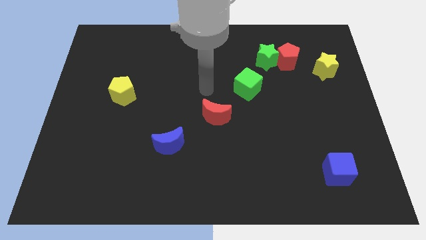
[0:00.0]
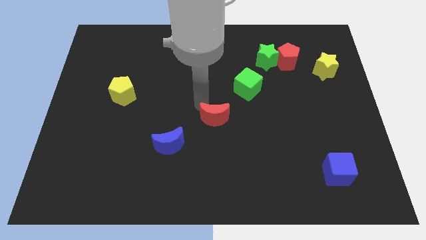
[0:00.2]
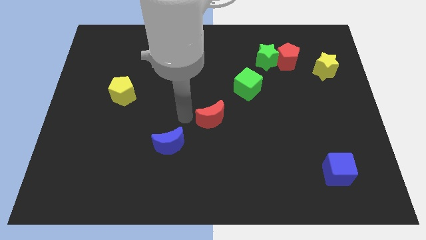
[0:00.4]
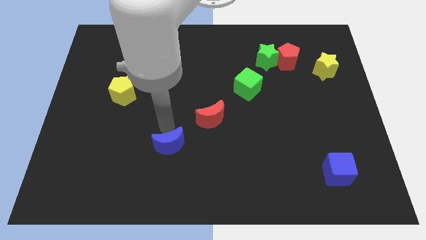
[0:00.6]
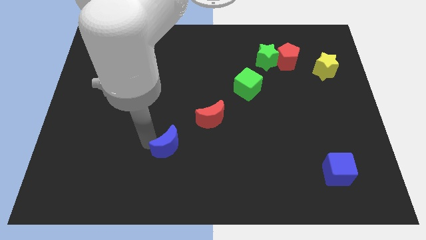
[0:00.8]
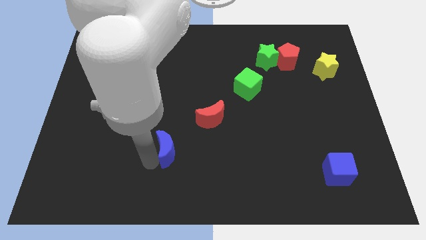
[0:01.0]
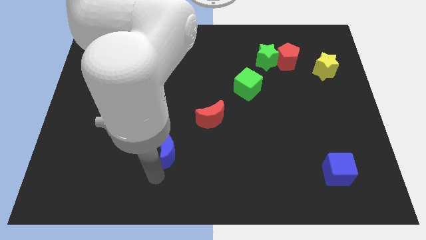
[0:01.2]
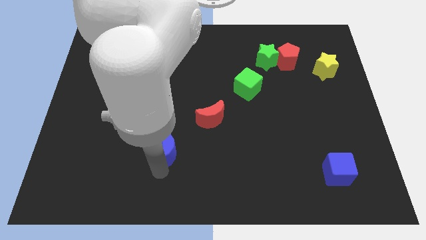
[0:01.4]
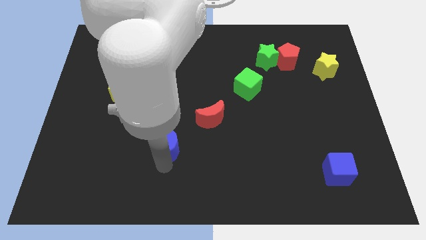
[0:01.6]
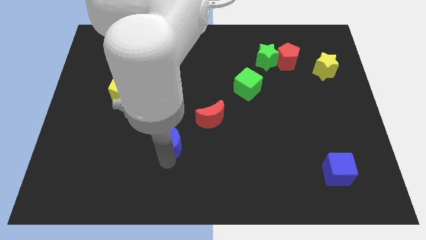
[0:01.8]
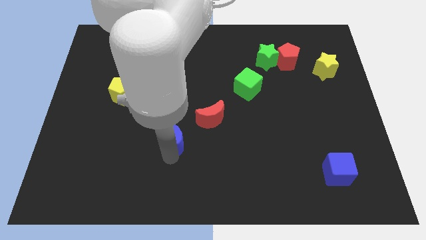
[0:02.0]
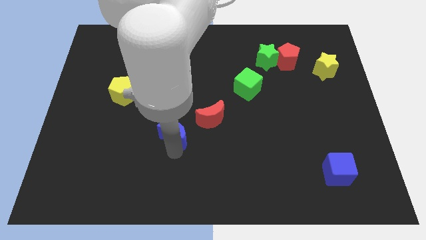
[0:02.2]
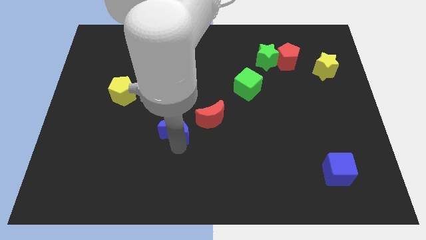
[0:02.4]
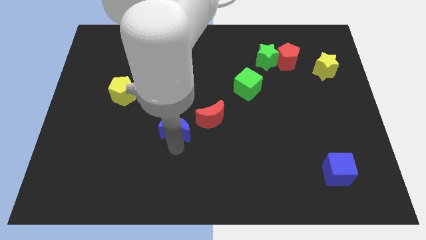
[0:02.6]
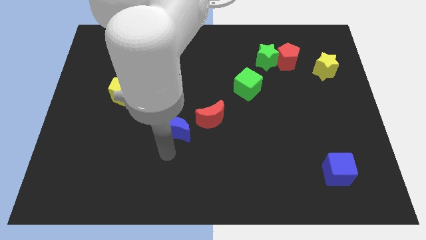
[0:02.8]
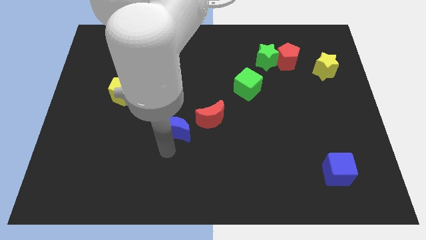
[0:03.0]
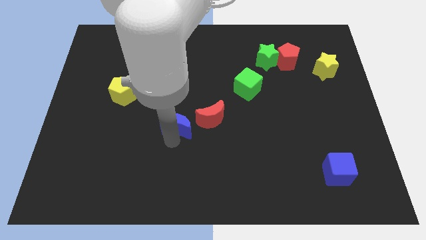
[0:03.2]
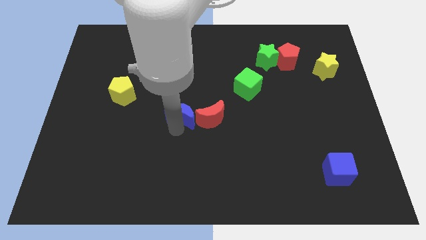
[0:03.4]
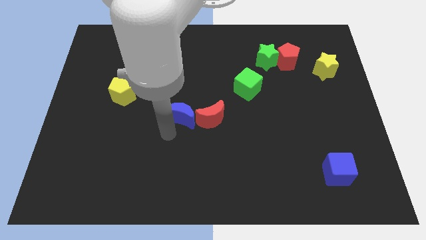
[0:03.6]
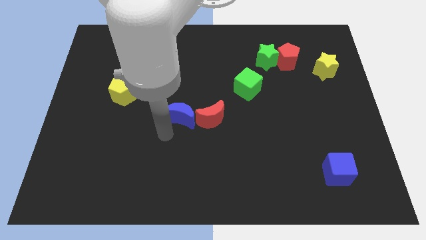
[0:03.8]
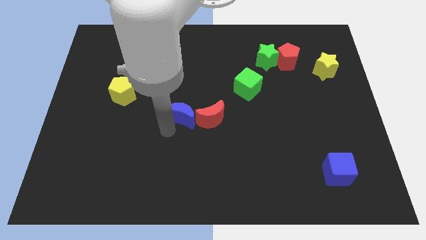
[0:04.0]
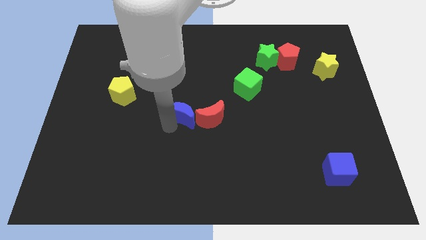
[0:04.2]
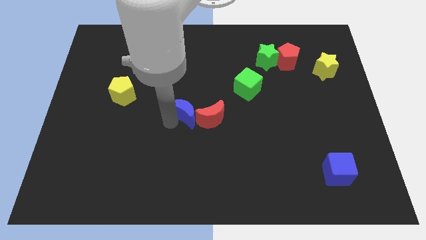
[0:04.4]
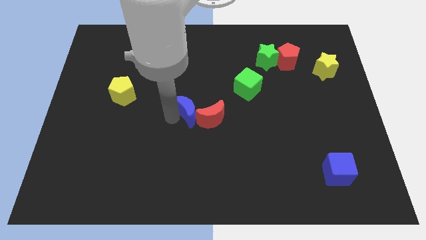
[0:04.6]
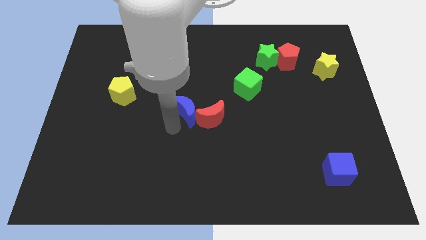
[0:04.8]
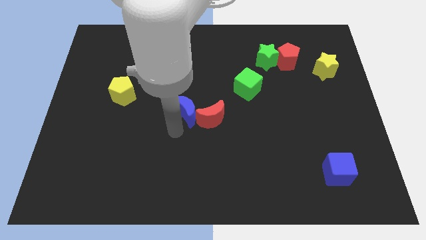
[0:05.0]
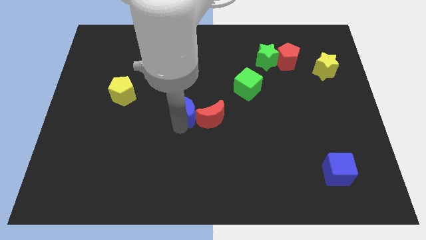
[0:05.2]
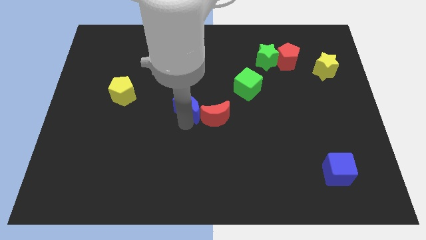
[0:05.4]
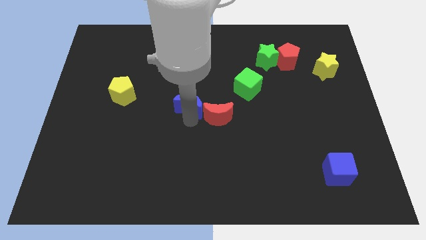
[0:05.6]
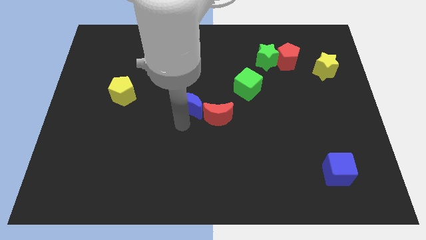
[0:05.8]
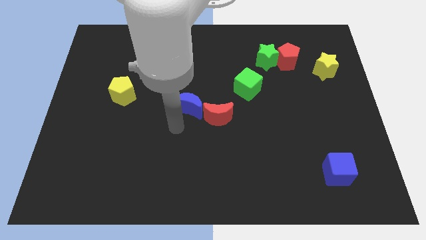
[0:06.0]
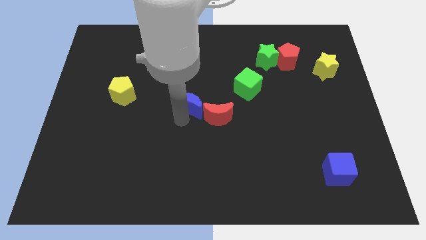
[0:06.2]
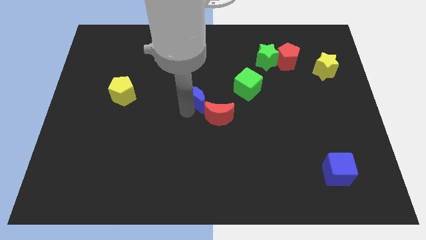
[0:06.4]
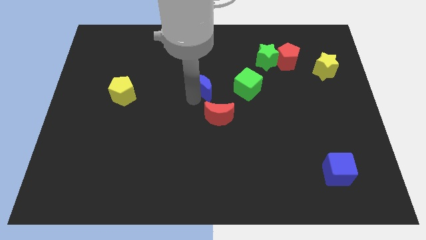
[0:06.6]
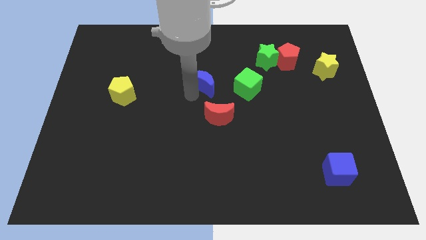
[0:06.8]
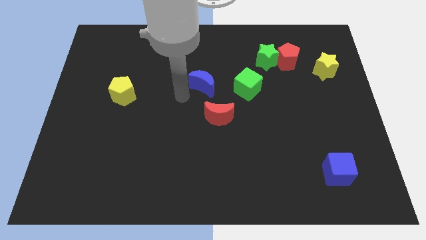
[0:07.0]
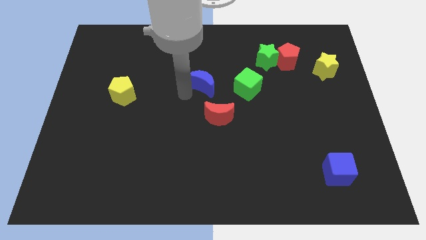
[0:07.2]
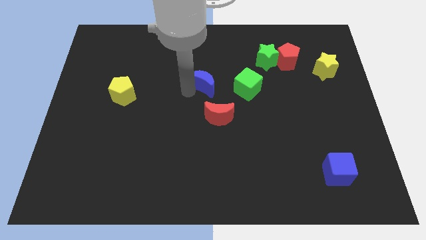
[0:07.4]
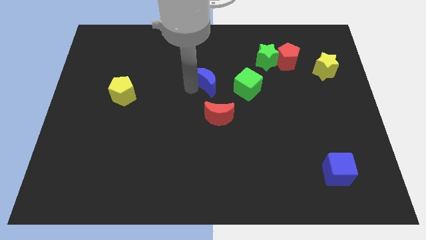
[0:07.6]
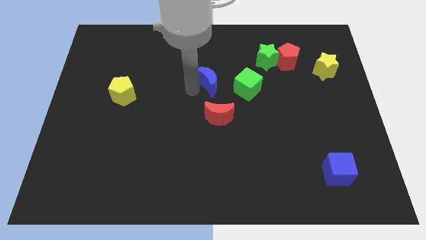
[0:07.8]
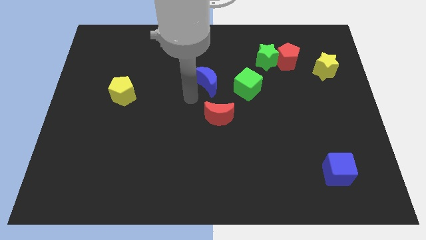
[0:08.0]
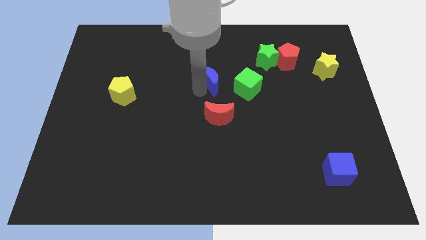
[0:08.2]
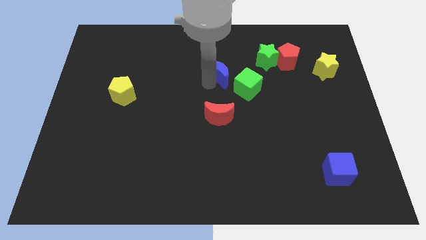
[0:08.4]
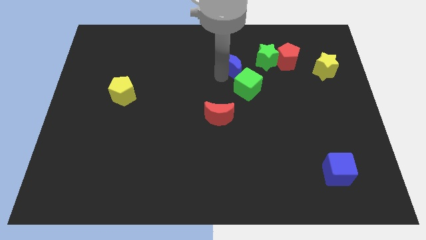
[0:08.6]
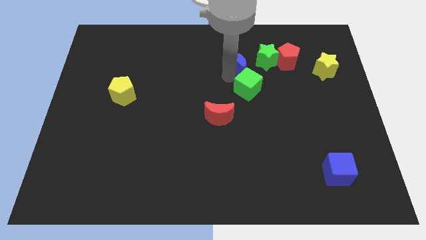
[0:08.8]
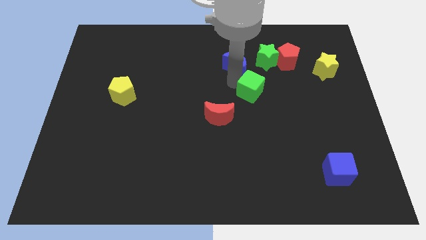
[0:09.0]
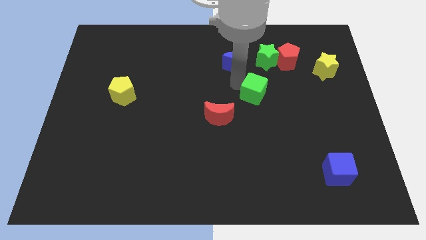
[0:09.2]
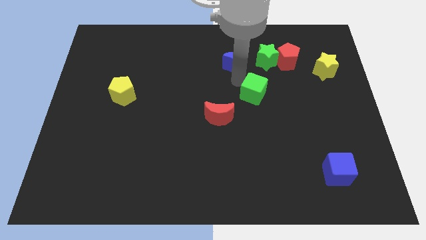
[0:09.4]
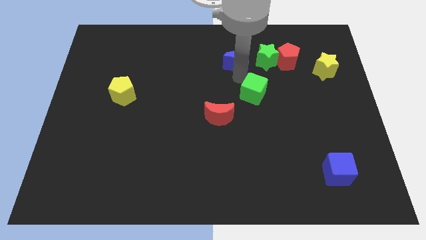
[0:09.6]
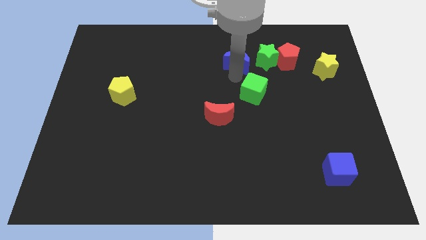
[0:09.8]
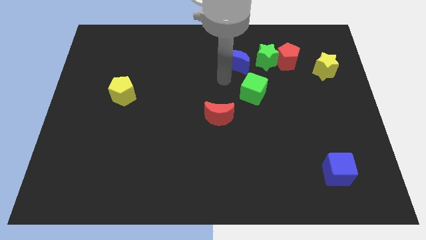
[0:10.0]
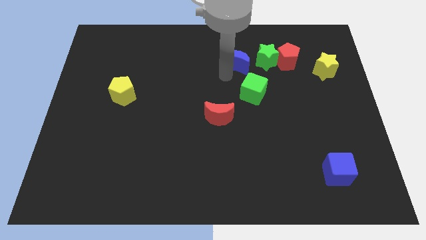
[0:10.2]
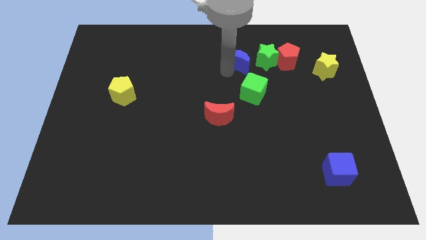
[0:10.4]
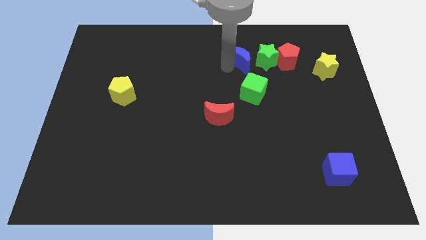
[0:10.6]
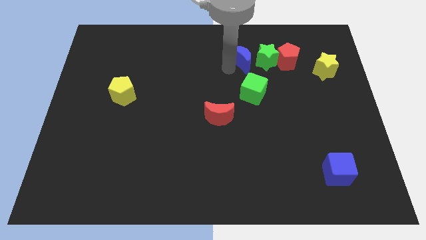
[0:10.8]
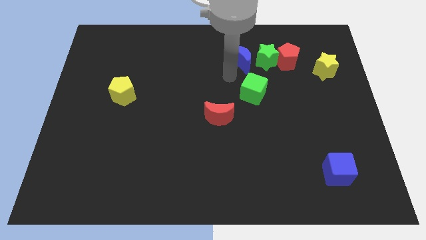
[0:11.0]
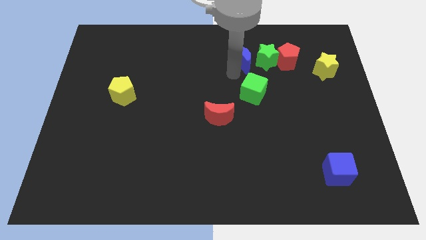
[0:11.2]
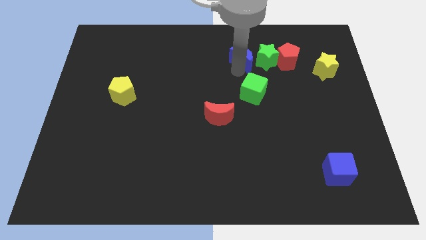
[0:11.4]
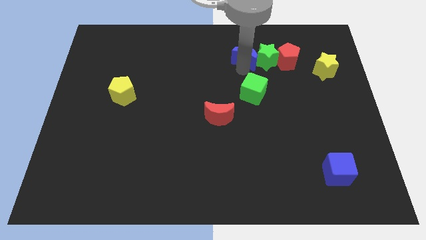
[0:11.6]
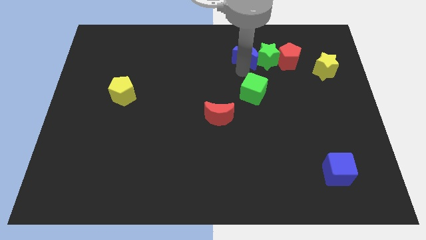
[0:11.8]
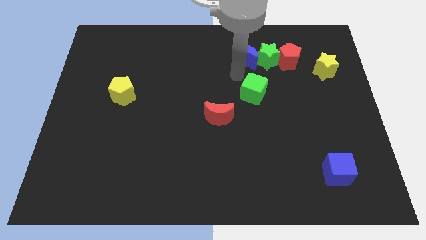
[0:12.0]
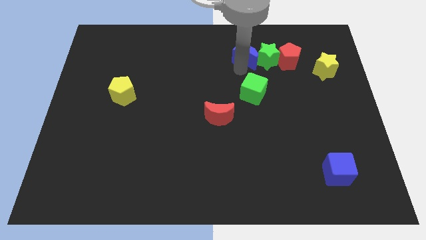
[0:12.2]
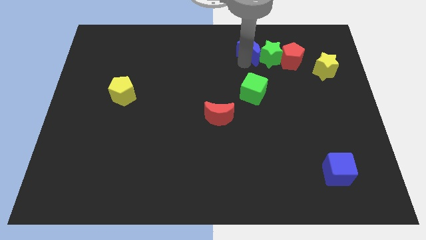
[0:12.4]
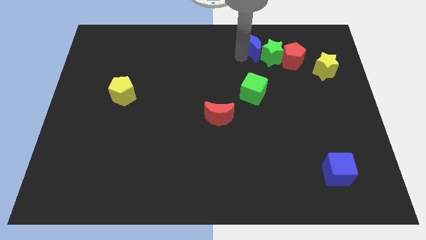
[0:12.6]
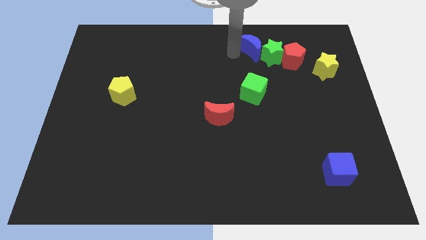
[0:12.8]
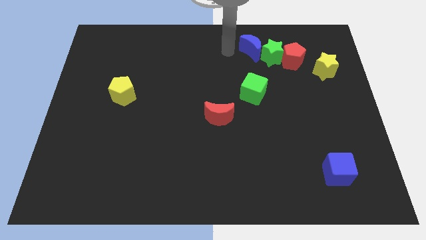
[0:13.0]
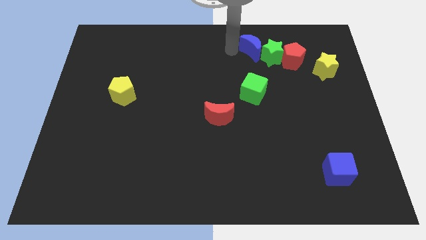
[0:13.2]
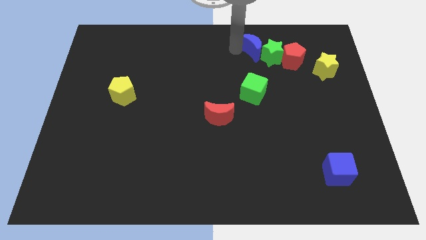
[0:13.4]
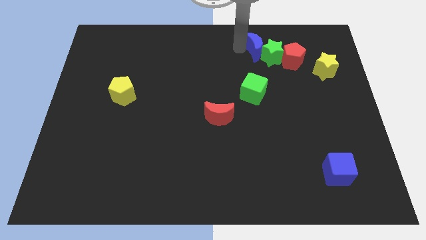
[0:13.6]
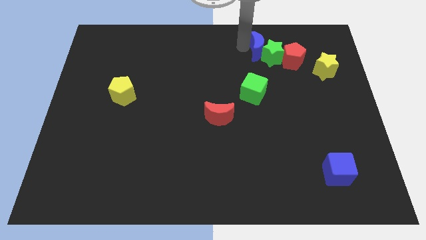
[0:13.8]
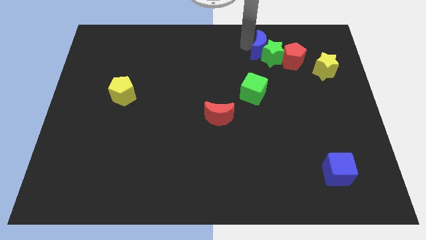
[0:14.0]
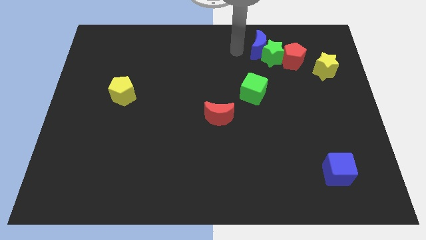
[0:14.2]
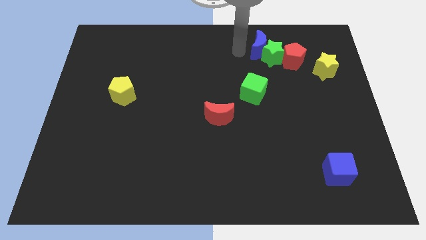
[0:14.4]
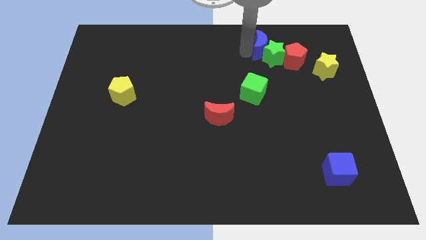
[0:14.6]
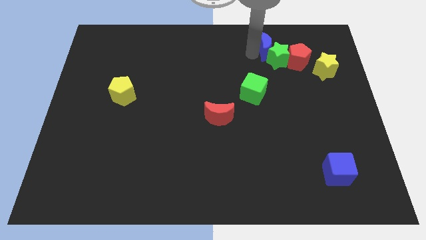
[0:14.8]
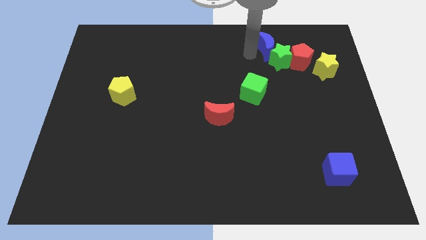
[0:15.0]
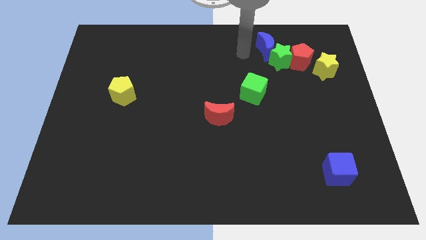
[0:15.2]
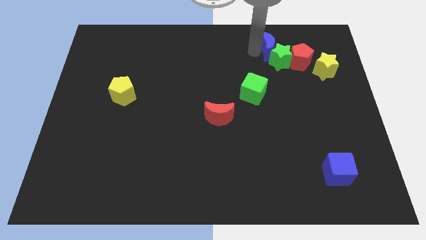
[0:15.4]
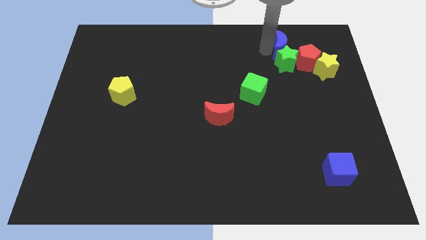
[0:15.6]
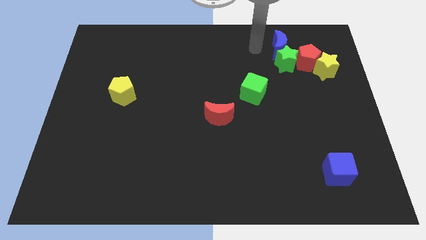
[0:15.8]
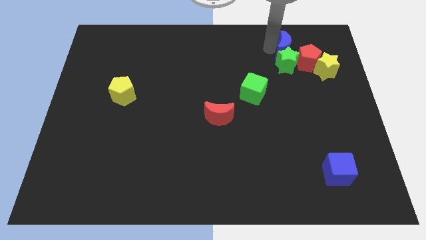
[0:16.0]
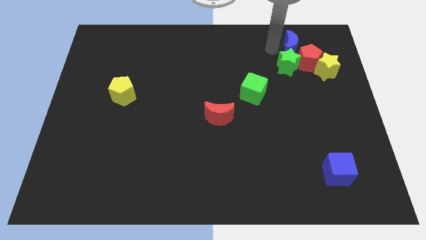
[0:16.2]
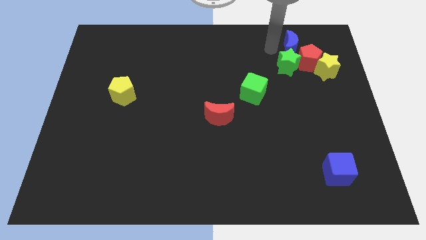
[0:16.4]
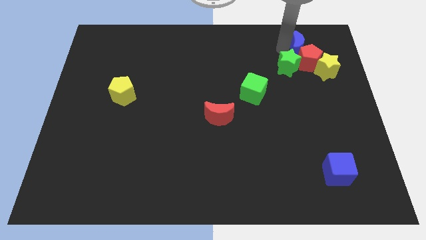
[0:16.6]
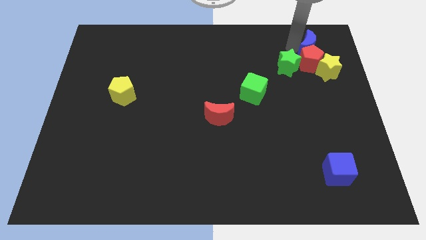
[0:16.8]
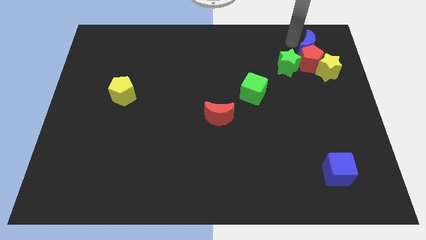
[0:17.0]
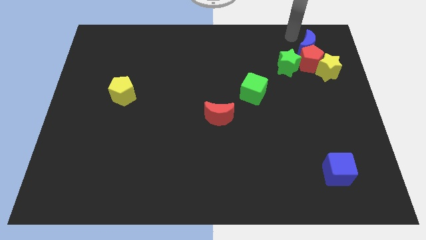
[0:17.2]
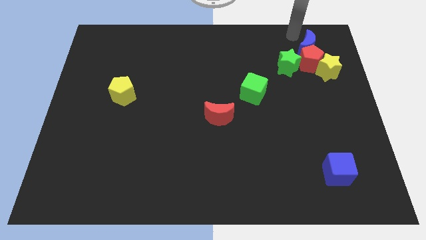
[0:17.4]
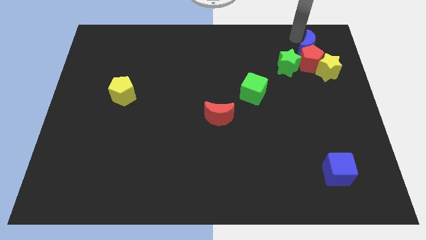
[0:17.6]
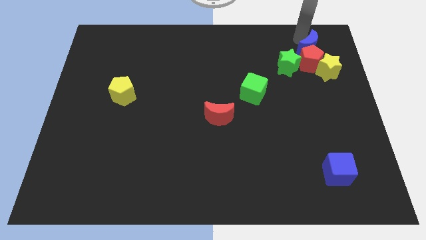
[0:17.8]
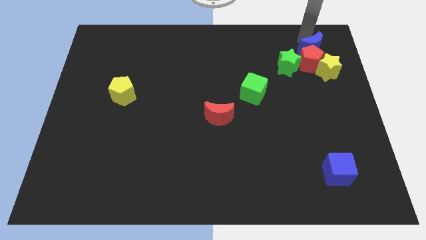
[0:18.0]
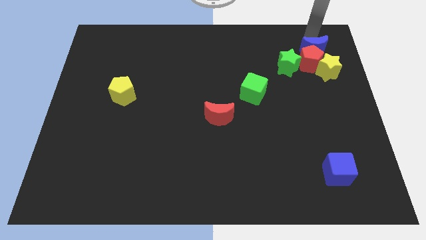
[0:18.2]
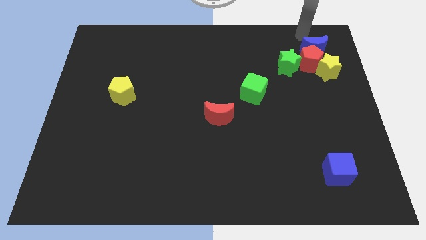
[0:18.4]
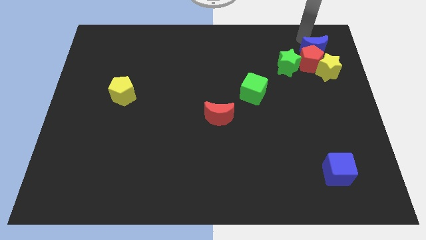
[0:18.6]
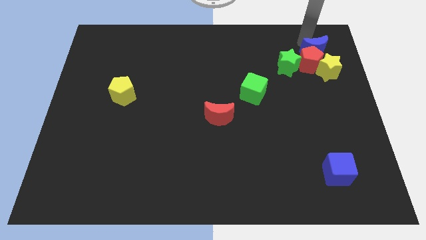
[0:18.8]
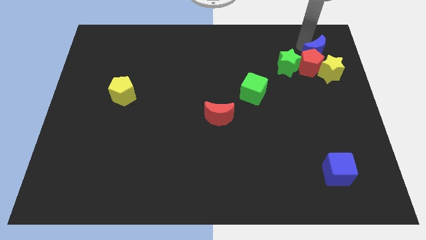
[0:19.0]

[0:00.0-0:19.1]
push the blue moon to the right of the green star
